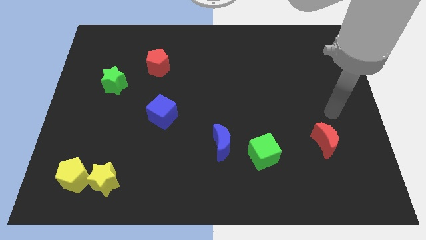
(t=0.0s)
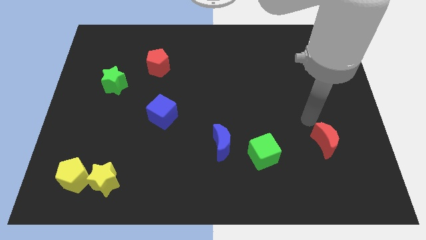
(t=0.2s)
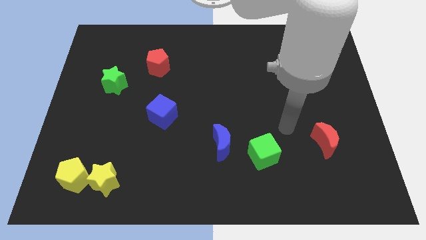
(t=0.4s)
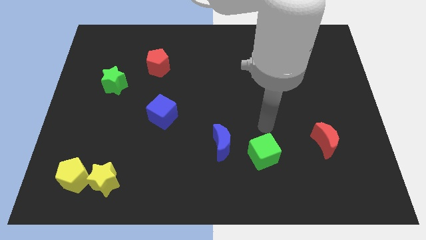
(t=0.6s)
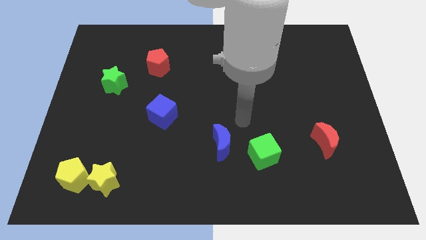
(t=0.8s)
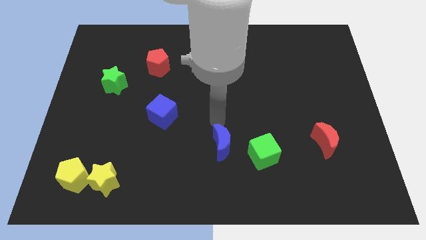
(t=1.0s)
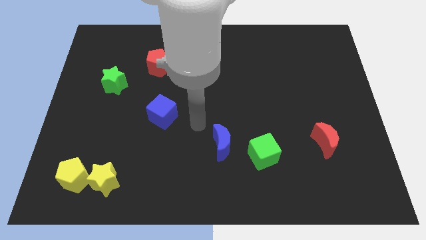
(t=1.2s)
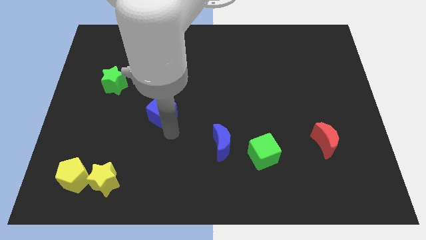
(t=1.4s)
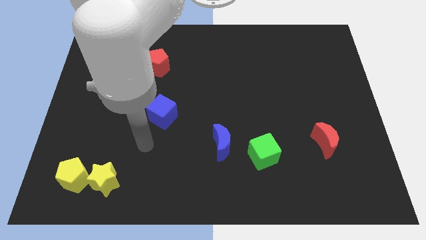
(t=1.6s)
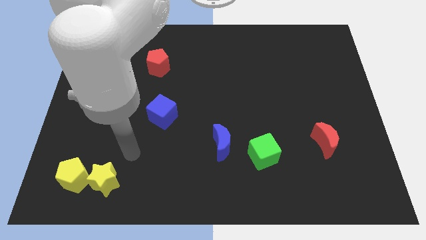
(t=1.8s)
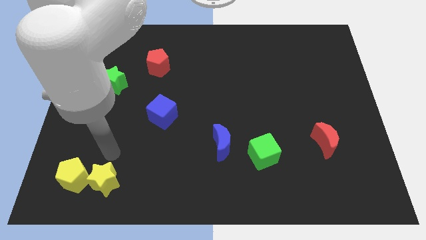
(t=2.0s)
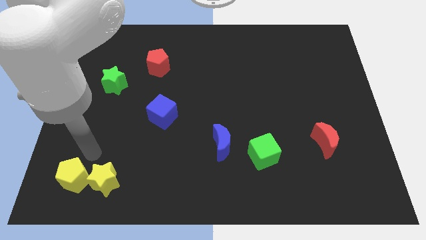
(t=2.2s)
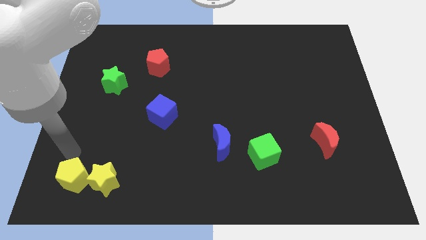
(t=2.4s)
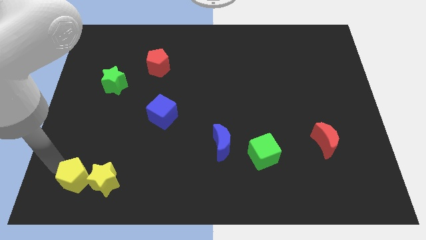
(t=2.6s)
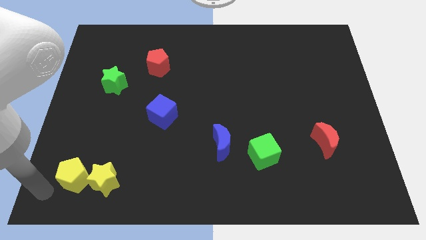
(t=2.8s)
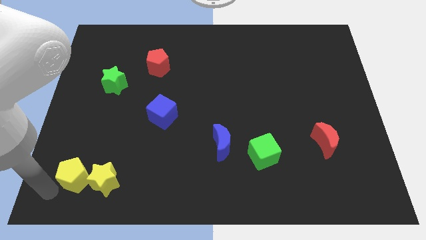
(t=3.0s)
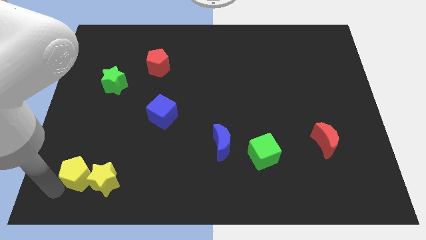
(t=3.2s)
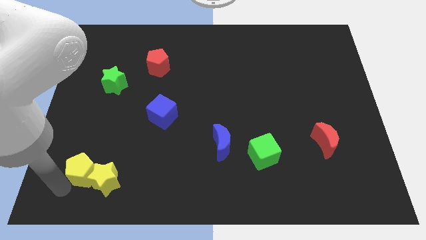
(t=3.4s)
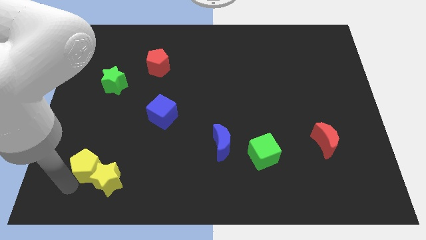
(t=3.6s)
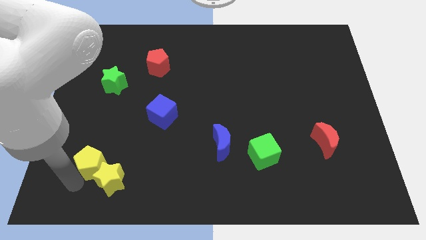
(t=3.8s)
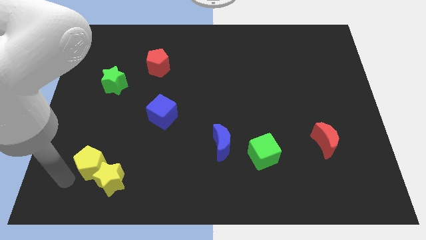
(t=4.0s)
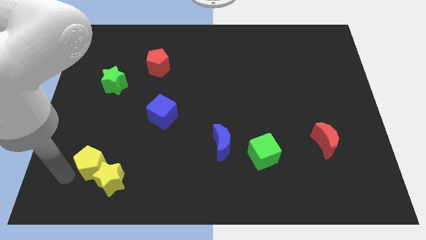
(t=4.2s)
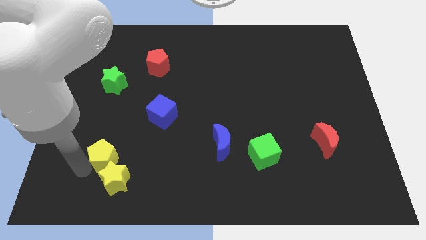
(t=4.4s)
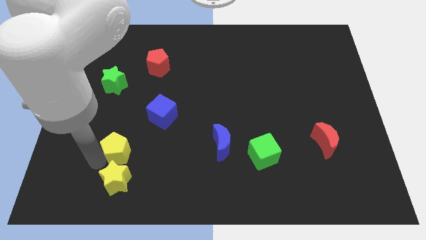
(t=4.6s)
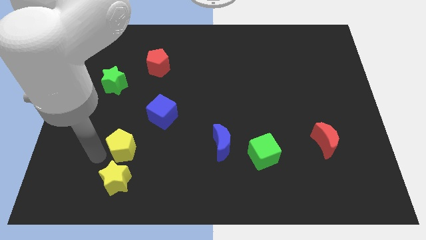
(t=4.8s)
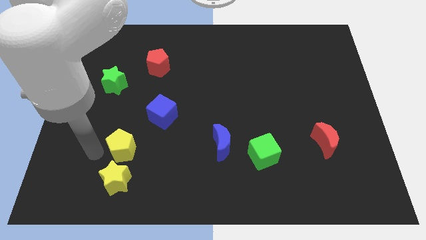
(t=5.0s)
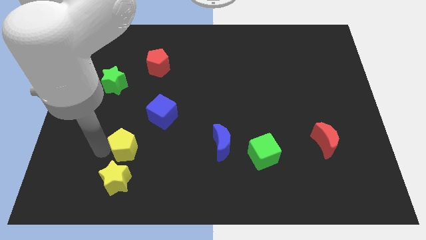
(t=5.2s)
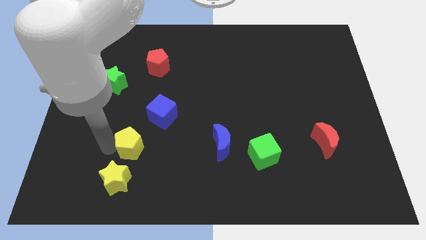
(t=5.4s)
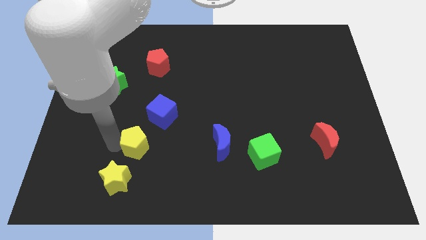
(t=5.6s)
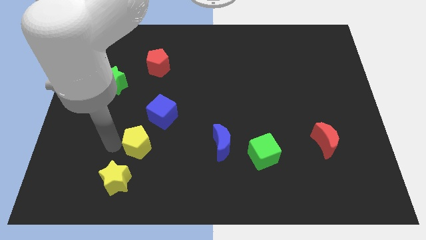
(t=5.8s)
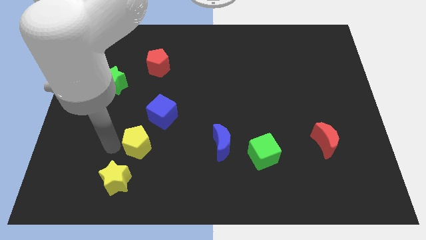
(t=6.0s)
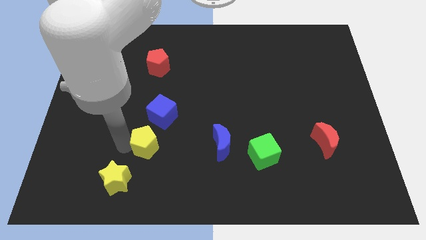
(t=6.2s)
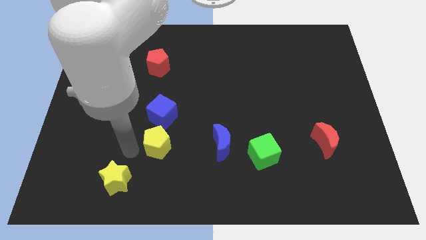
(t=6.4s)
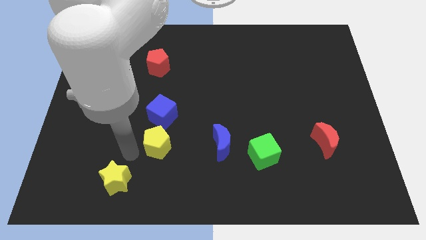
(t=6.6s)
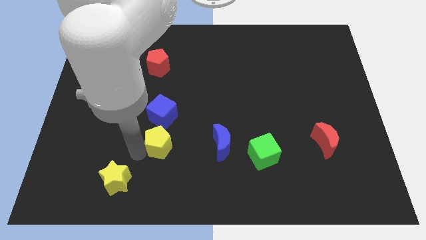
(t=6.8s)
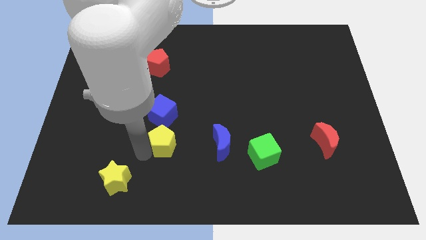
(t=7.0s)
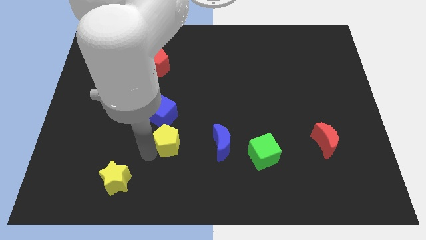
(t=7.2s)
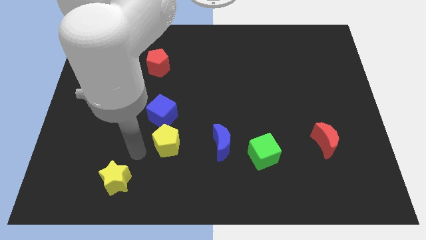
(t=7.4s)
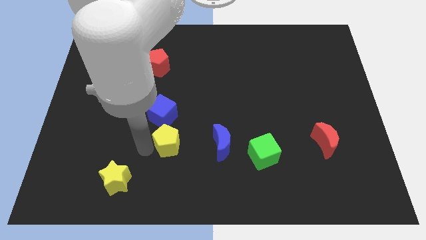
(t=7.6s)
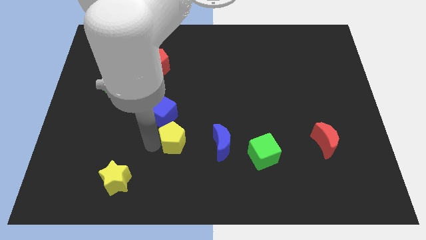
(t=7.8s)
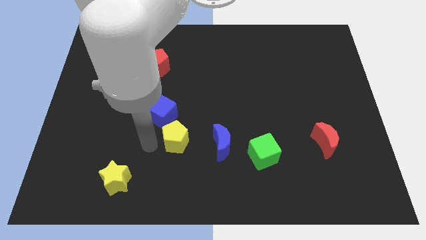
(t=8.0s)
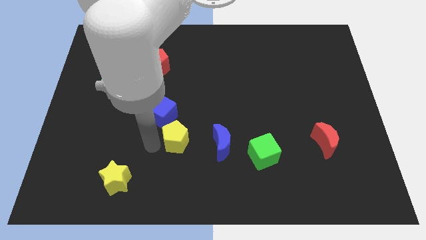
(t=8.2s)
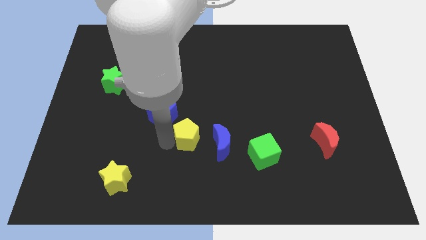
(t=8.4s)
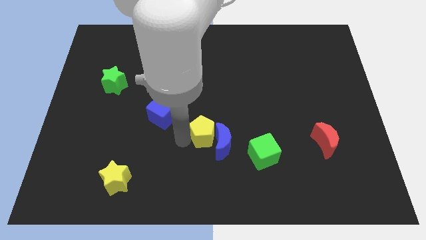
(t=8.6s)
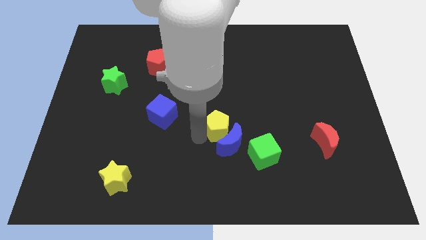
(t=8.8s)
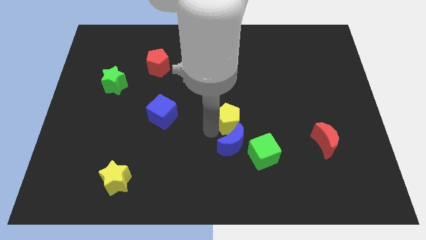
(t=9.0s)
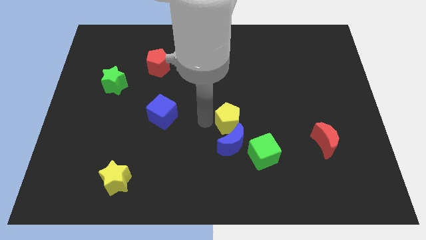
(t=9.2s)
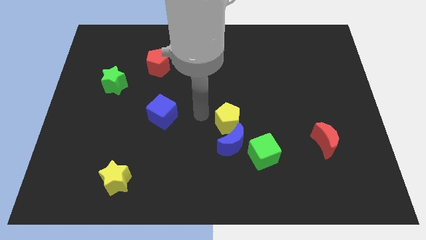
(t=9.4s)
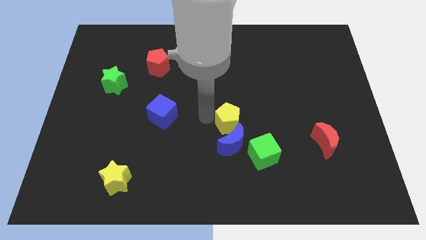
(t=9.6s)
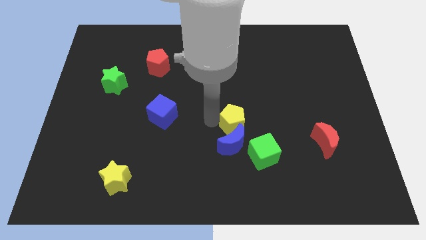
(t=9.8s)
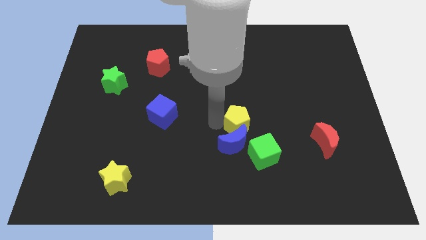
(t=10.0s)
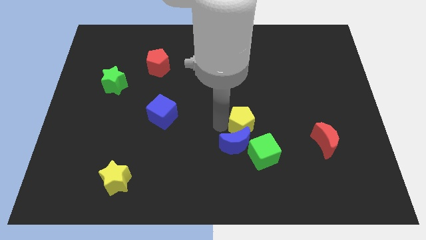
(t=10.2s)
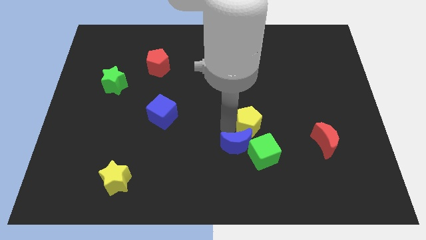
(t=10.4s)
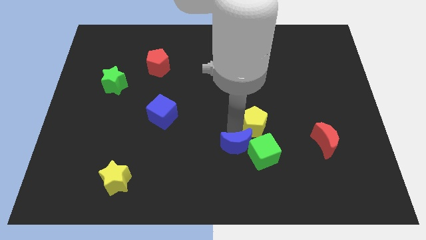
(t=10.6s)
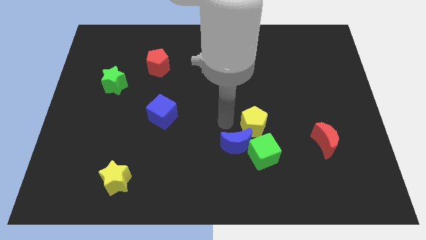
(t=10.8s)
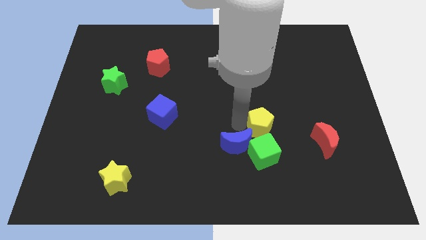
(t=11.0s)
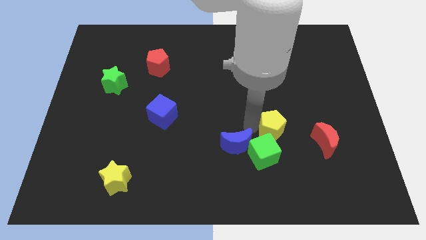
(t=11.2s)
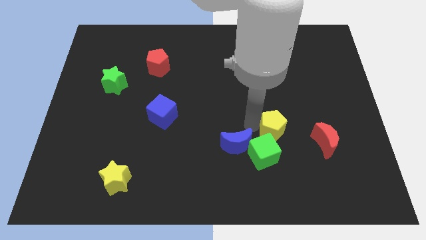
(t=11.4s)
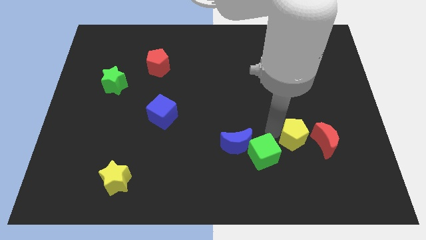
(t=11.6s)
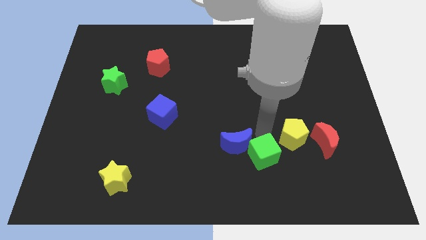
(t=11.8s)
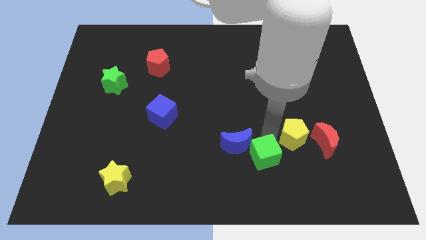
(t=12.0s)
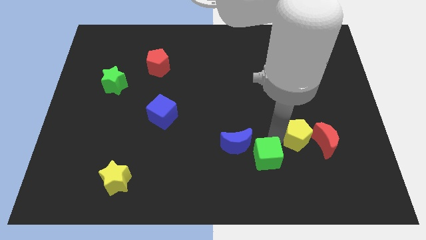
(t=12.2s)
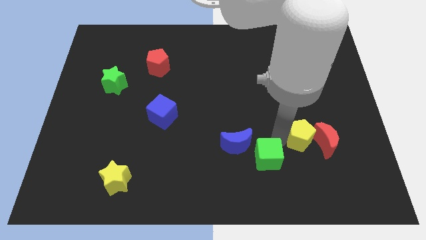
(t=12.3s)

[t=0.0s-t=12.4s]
put the yellow pentagon close to the red moon

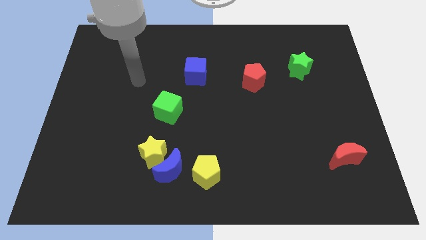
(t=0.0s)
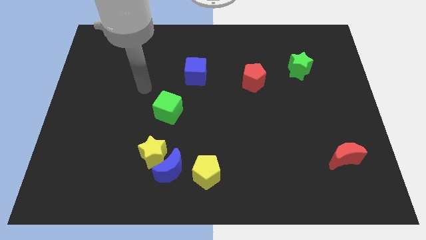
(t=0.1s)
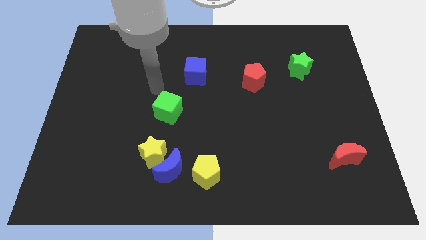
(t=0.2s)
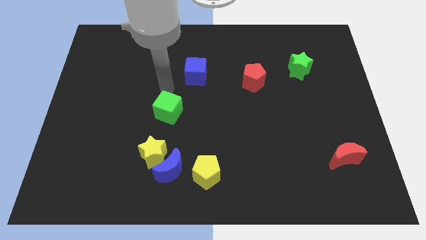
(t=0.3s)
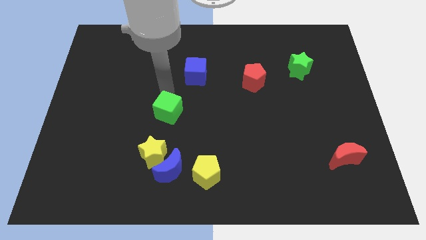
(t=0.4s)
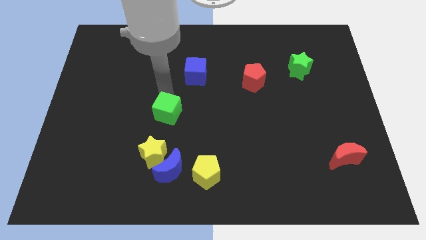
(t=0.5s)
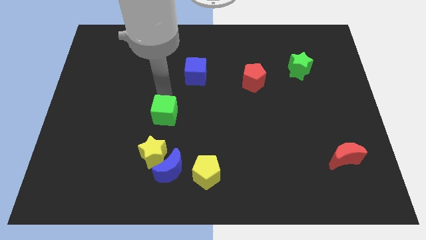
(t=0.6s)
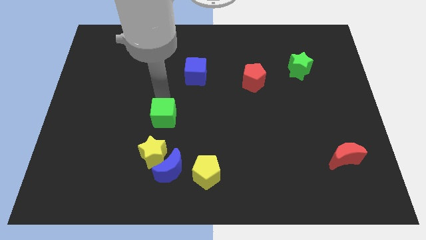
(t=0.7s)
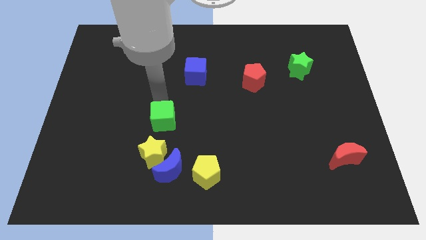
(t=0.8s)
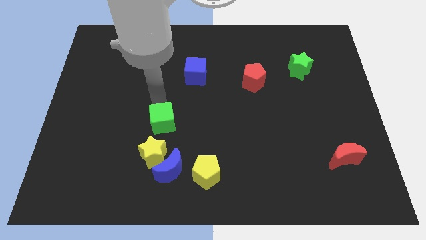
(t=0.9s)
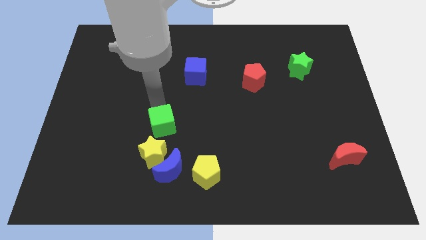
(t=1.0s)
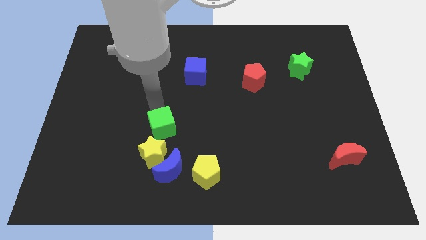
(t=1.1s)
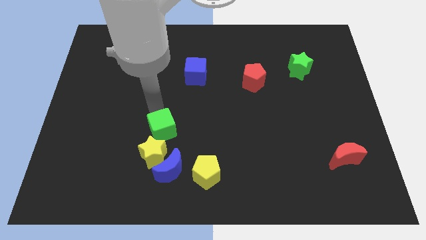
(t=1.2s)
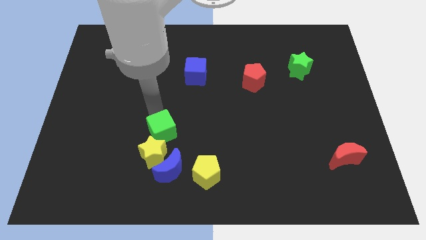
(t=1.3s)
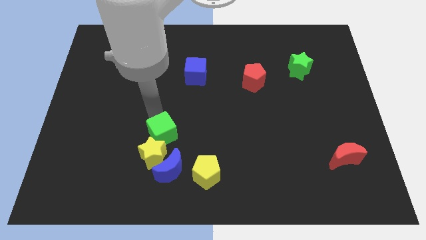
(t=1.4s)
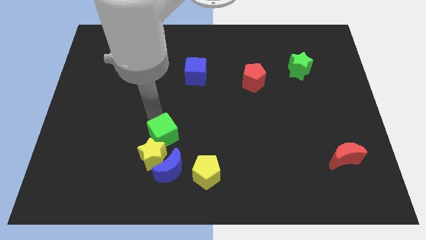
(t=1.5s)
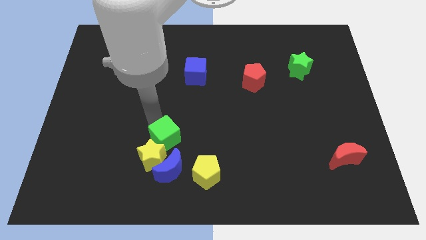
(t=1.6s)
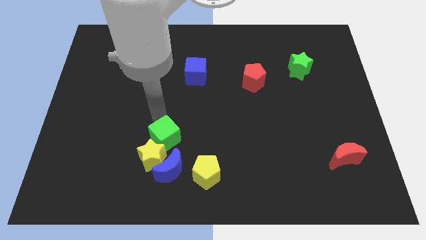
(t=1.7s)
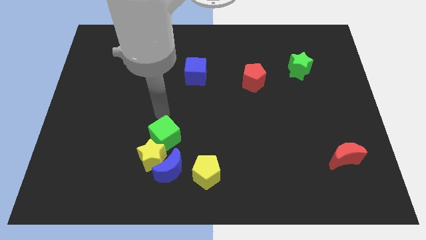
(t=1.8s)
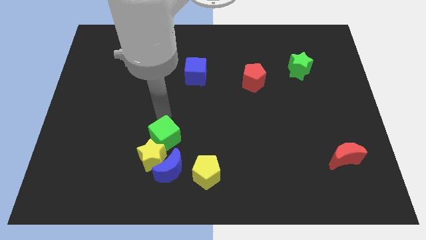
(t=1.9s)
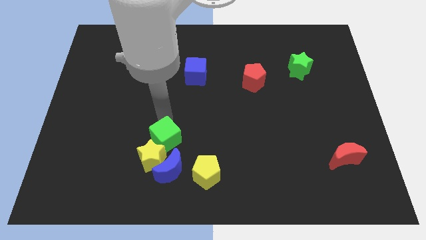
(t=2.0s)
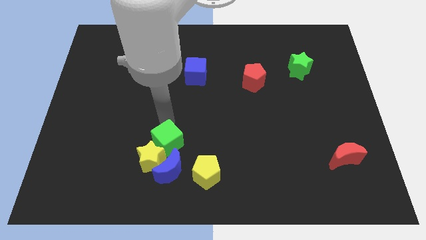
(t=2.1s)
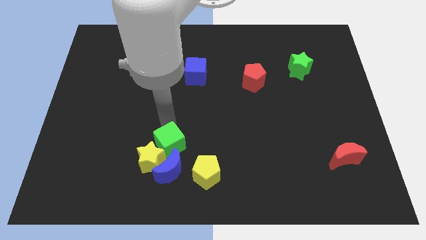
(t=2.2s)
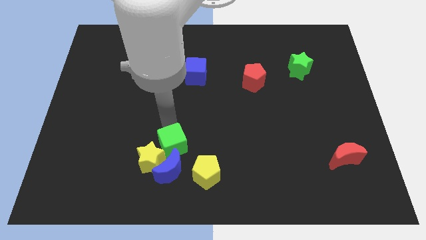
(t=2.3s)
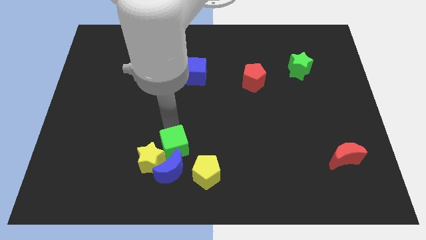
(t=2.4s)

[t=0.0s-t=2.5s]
push the green cube to the blue moon
